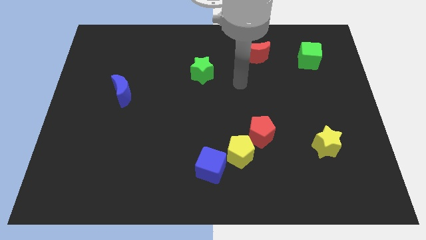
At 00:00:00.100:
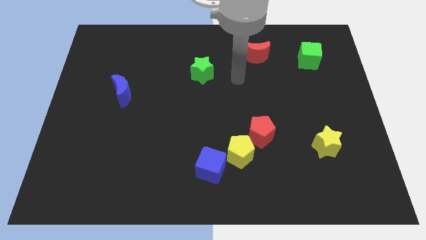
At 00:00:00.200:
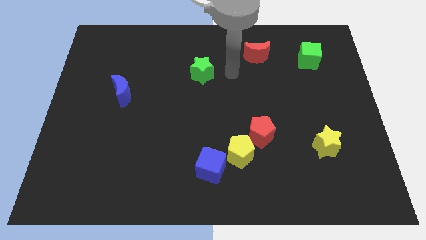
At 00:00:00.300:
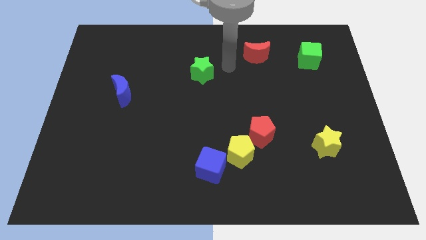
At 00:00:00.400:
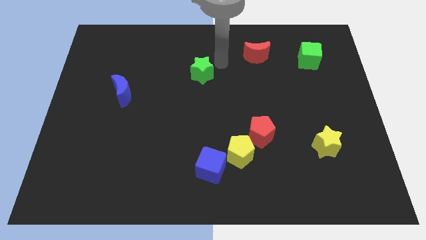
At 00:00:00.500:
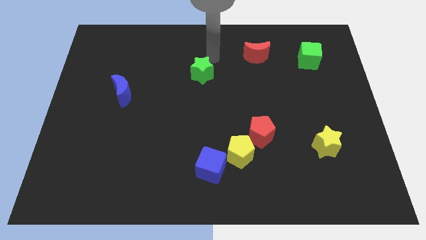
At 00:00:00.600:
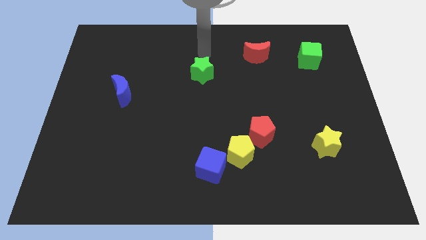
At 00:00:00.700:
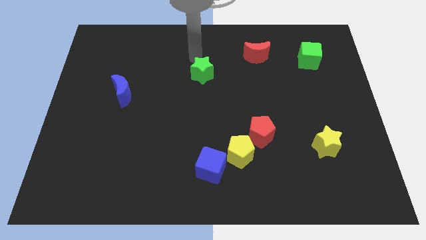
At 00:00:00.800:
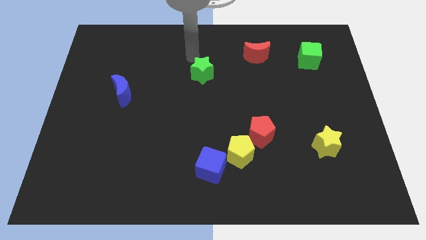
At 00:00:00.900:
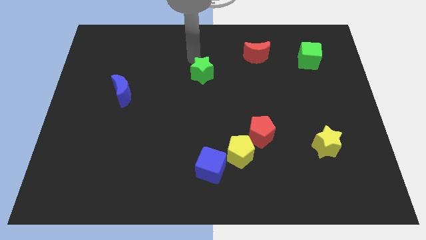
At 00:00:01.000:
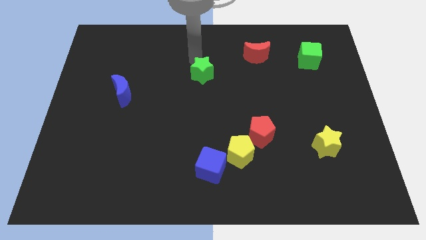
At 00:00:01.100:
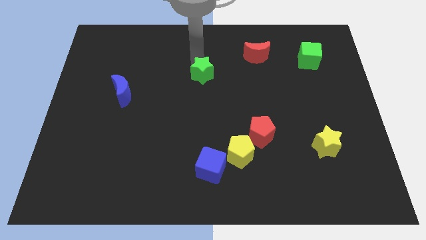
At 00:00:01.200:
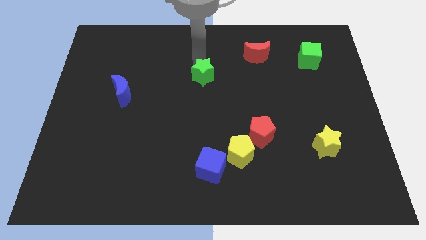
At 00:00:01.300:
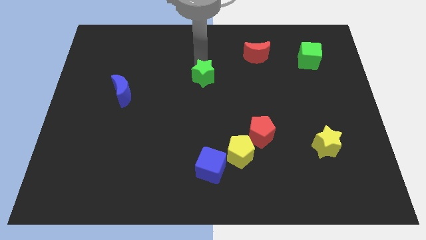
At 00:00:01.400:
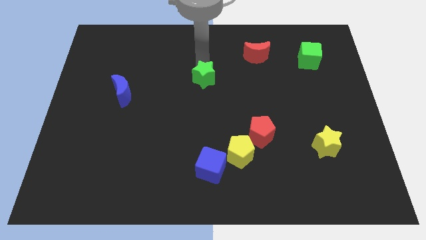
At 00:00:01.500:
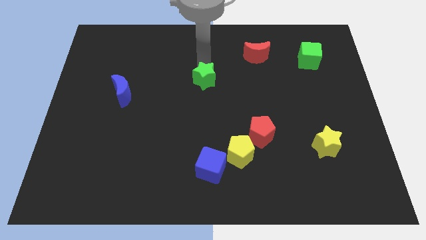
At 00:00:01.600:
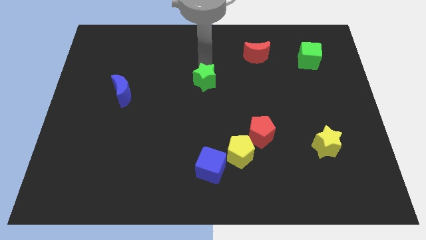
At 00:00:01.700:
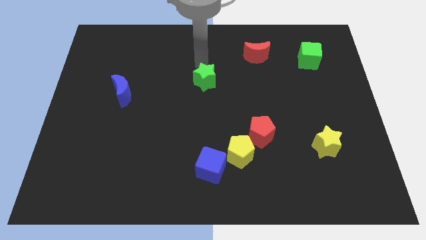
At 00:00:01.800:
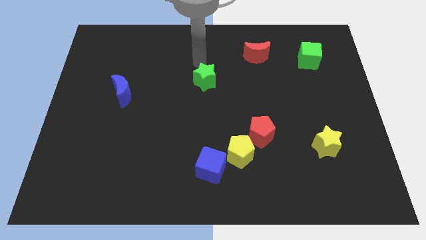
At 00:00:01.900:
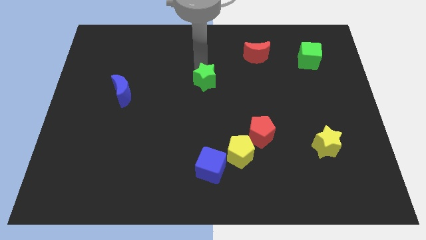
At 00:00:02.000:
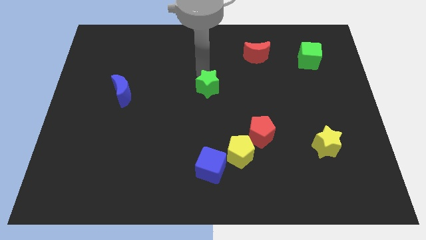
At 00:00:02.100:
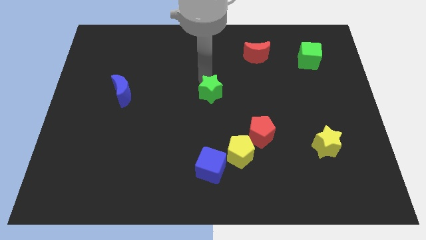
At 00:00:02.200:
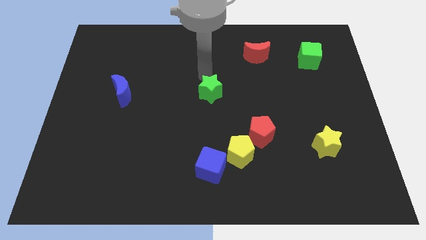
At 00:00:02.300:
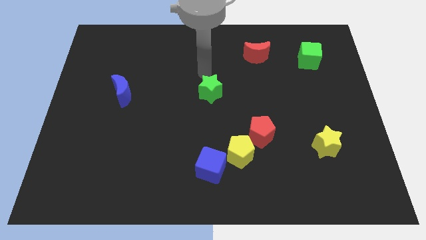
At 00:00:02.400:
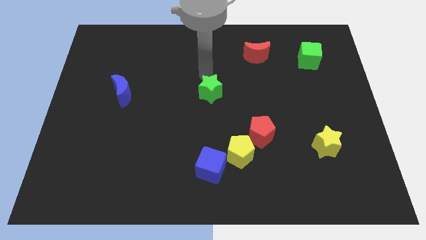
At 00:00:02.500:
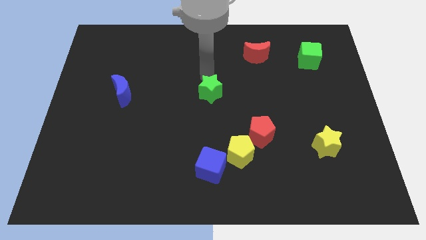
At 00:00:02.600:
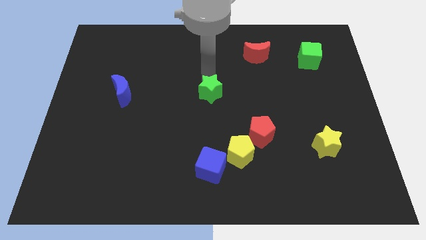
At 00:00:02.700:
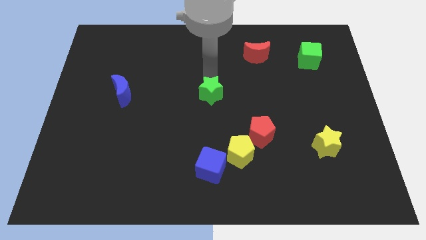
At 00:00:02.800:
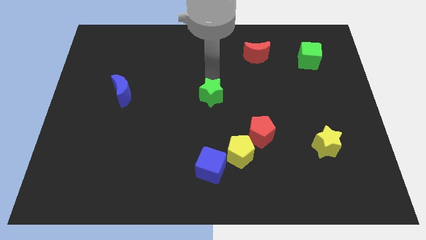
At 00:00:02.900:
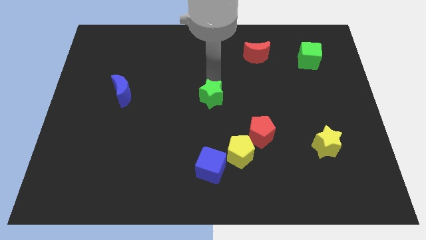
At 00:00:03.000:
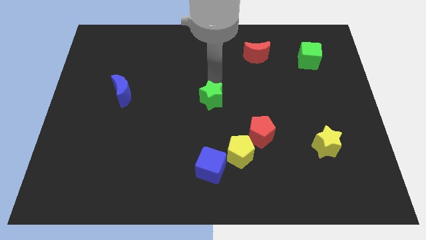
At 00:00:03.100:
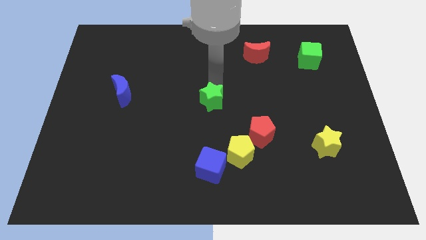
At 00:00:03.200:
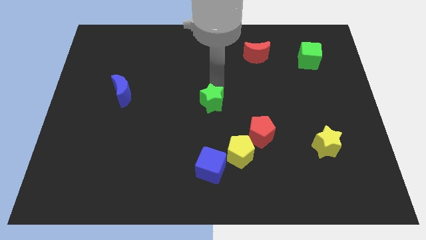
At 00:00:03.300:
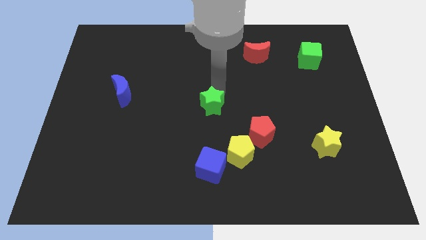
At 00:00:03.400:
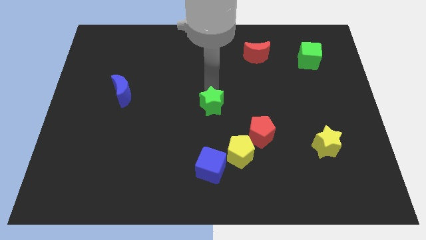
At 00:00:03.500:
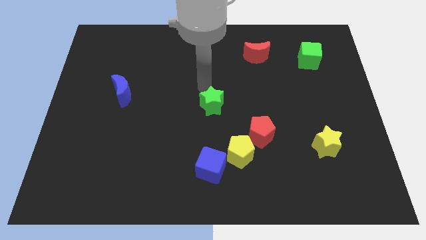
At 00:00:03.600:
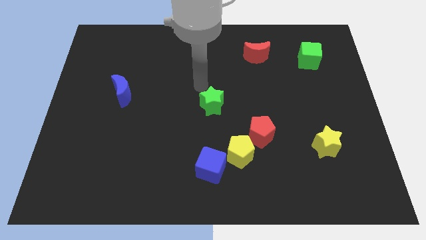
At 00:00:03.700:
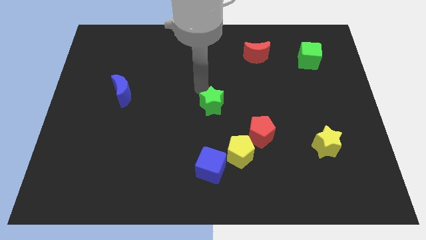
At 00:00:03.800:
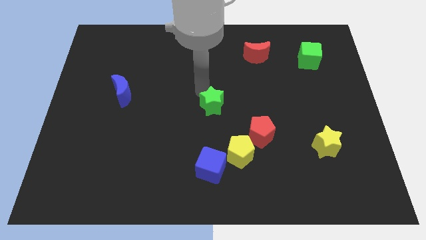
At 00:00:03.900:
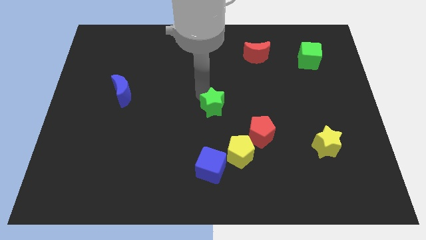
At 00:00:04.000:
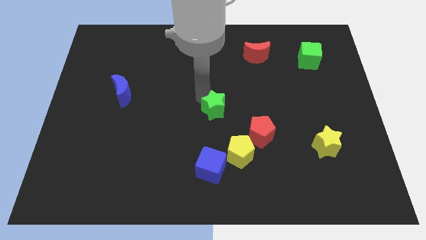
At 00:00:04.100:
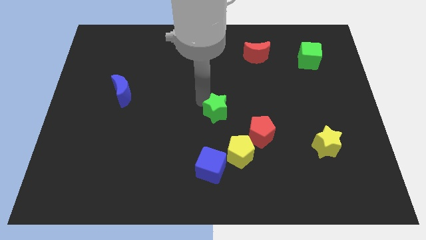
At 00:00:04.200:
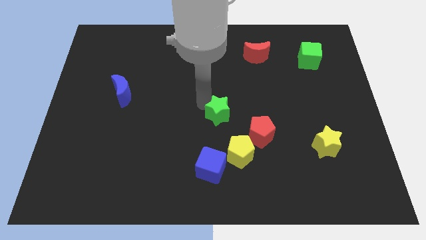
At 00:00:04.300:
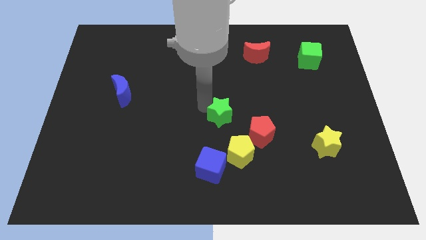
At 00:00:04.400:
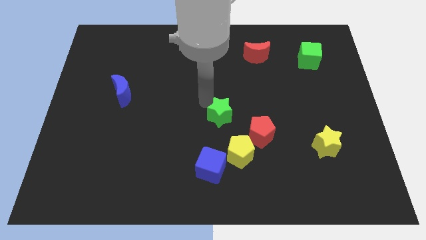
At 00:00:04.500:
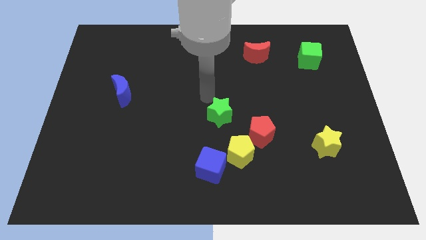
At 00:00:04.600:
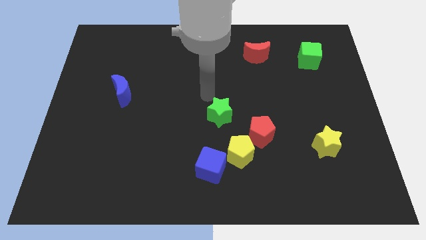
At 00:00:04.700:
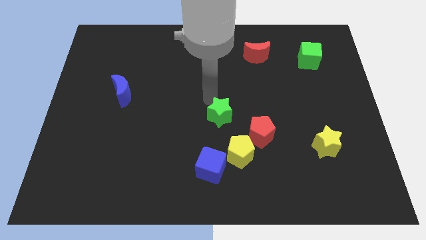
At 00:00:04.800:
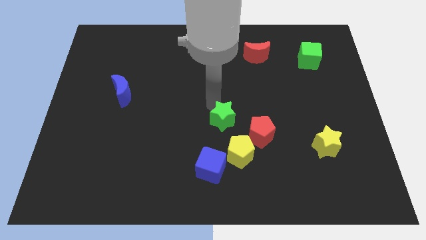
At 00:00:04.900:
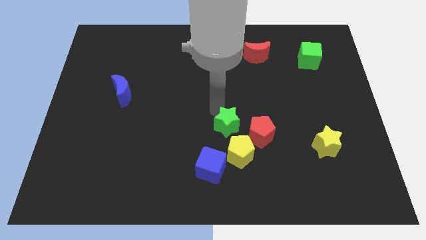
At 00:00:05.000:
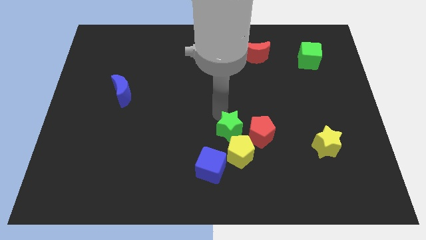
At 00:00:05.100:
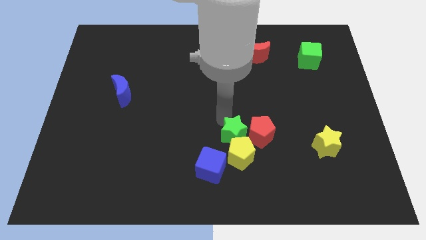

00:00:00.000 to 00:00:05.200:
push the green star to the yellow pentagon

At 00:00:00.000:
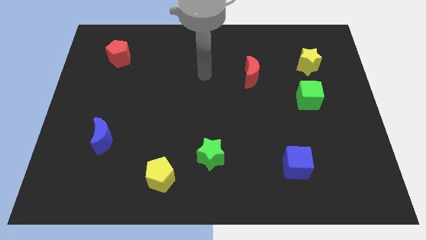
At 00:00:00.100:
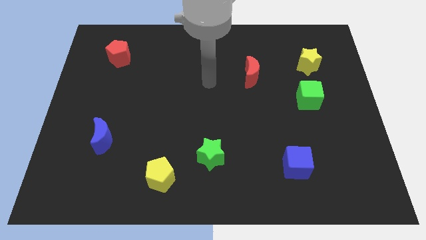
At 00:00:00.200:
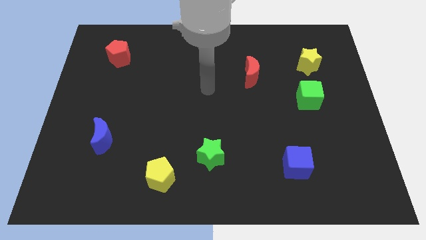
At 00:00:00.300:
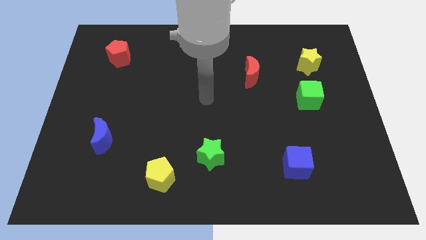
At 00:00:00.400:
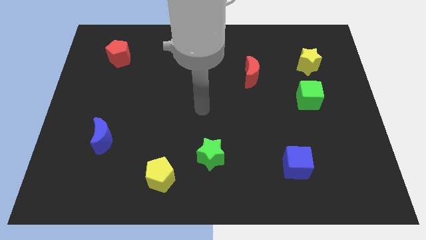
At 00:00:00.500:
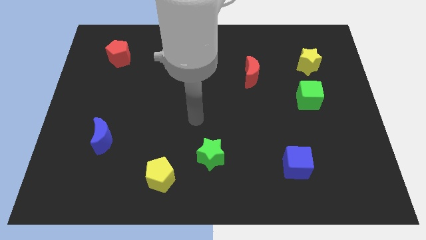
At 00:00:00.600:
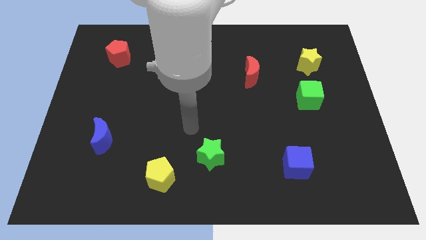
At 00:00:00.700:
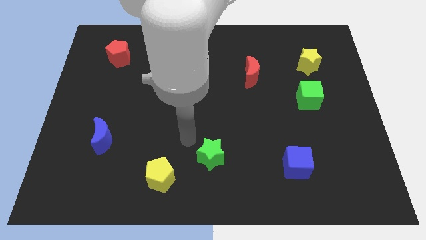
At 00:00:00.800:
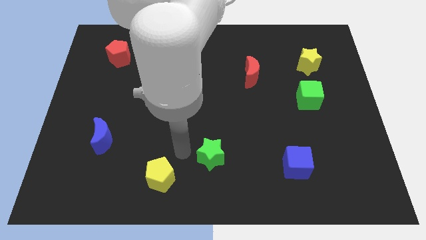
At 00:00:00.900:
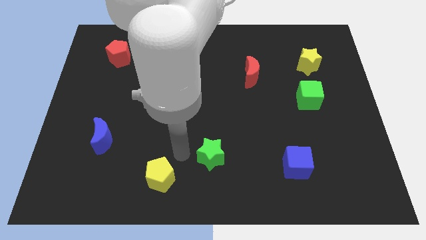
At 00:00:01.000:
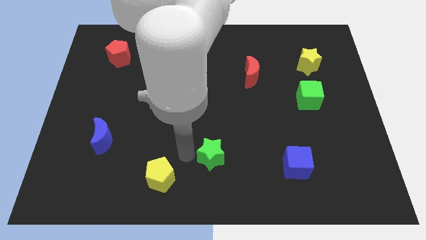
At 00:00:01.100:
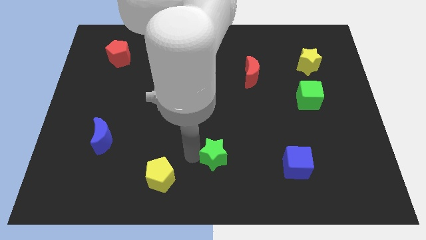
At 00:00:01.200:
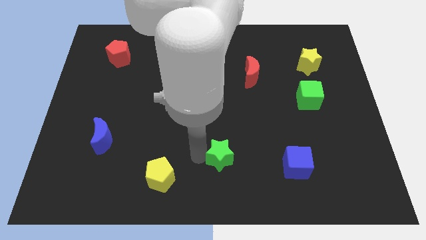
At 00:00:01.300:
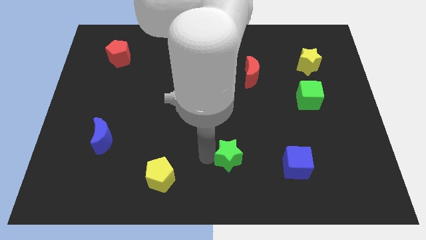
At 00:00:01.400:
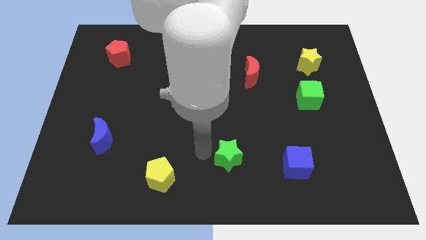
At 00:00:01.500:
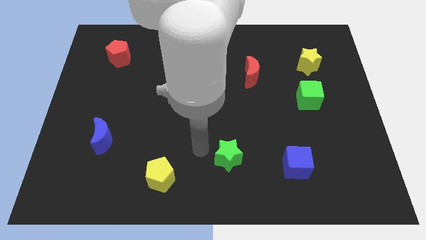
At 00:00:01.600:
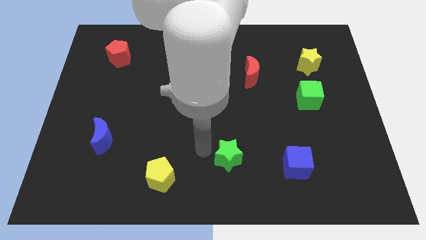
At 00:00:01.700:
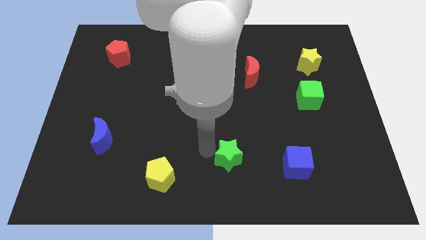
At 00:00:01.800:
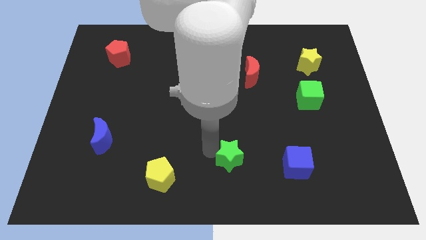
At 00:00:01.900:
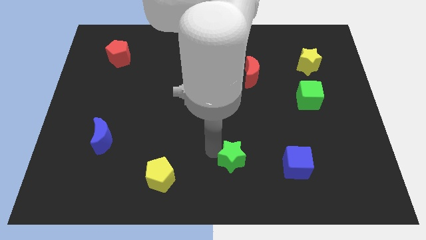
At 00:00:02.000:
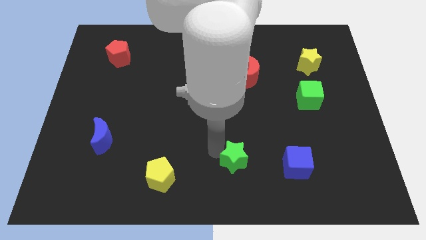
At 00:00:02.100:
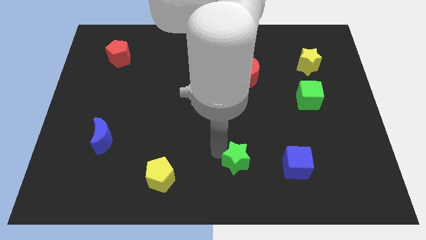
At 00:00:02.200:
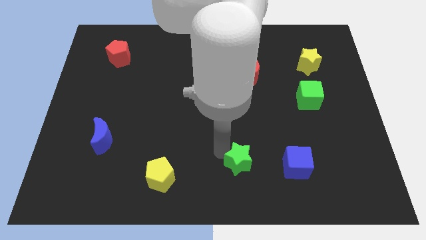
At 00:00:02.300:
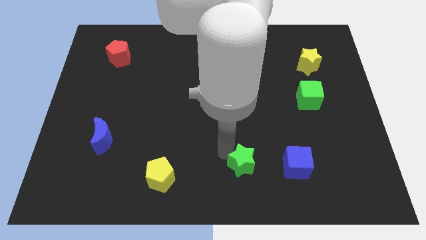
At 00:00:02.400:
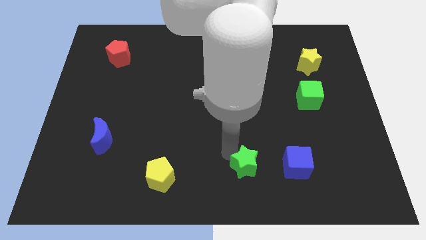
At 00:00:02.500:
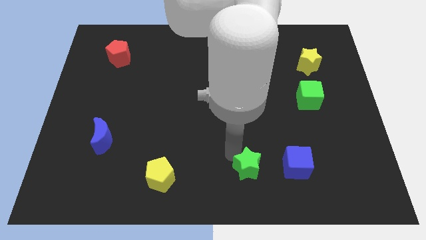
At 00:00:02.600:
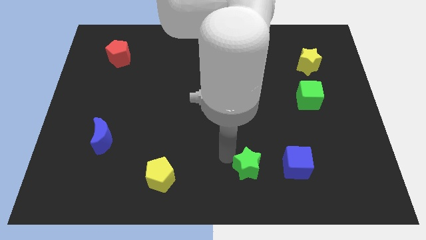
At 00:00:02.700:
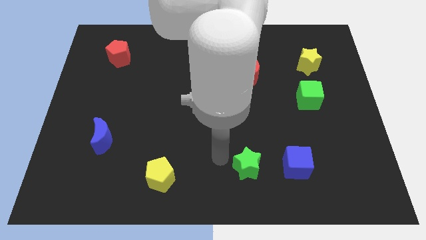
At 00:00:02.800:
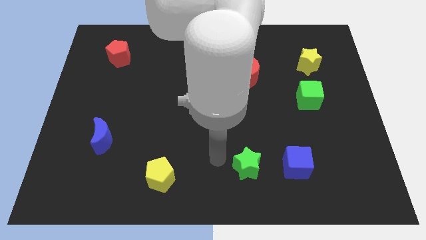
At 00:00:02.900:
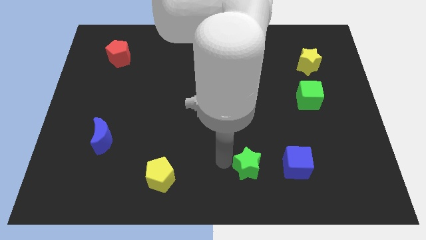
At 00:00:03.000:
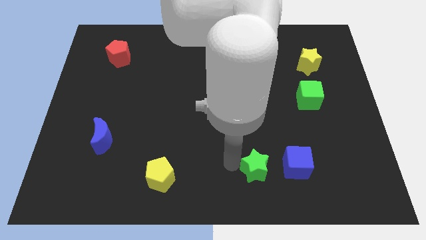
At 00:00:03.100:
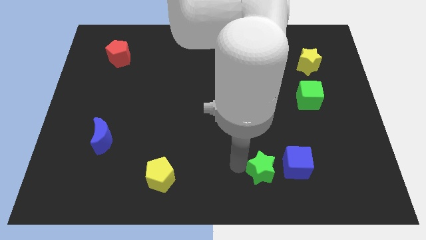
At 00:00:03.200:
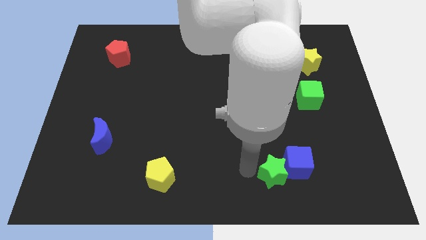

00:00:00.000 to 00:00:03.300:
put the green star close to the blue cube
